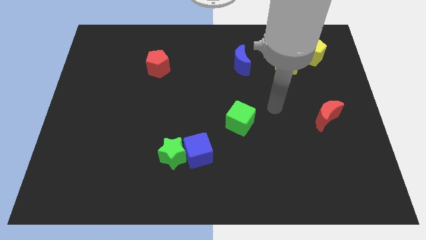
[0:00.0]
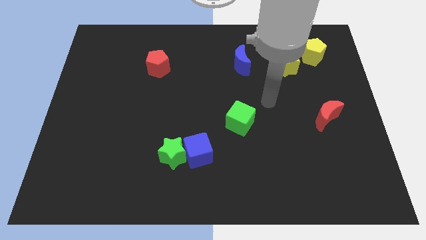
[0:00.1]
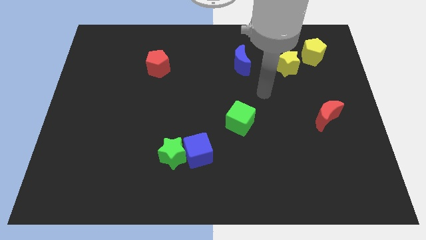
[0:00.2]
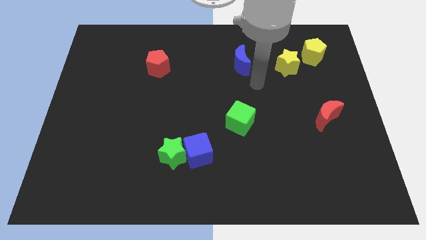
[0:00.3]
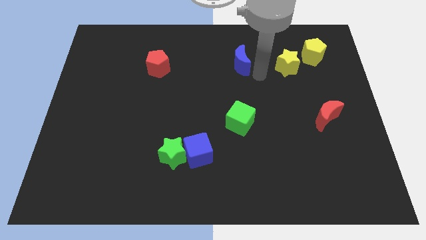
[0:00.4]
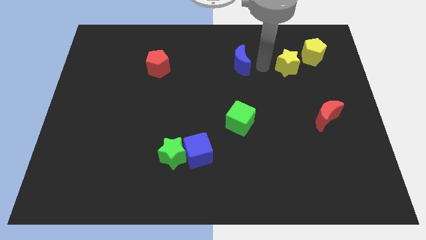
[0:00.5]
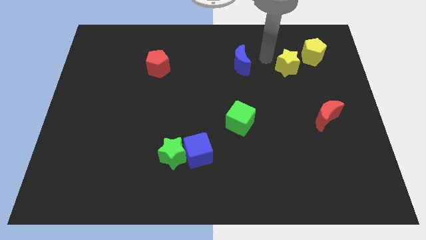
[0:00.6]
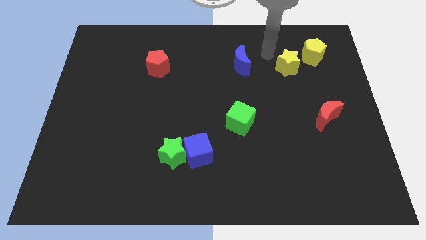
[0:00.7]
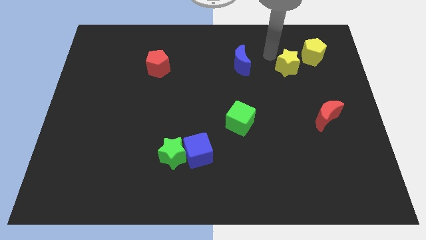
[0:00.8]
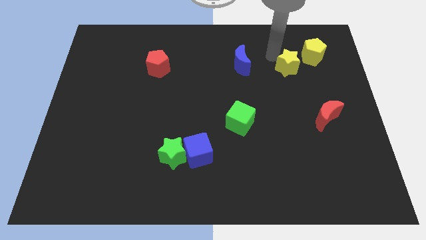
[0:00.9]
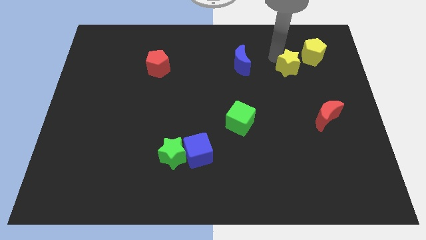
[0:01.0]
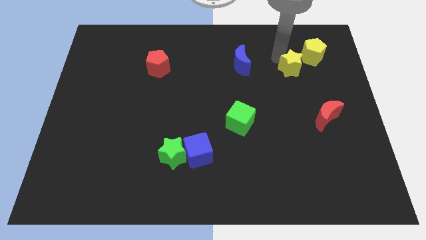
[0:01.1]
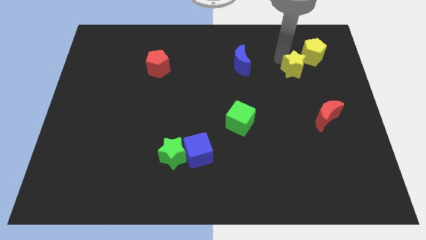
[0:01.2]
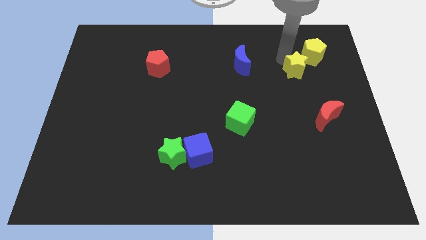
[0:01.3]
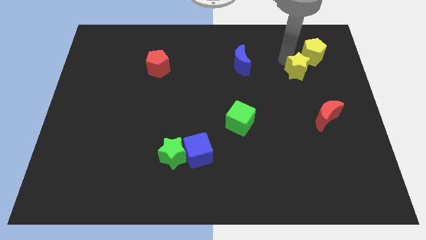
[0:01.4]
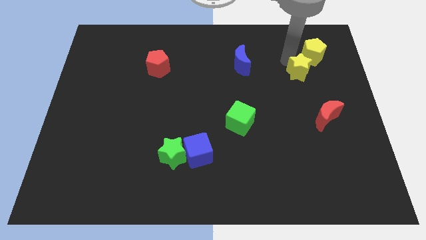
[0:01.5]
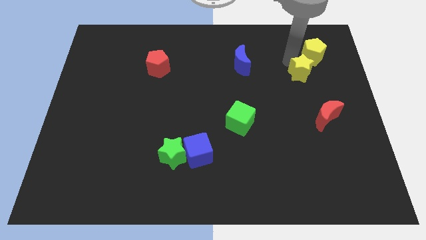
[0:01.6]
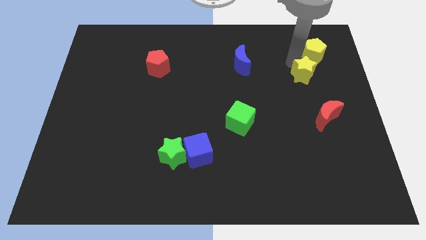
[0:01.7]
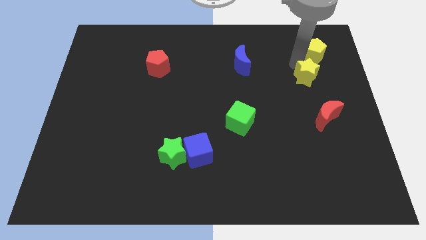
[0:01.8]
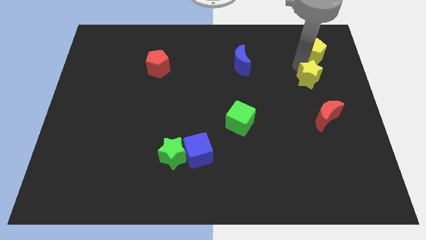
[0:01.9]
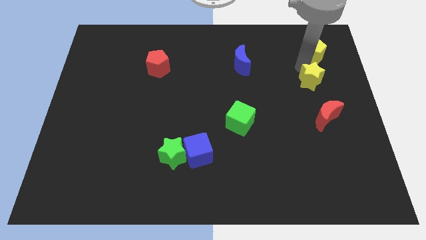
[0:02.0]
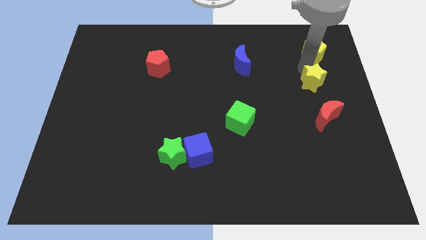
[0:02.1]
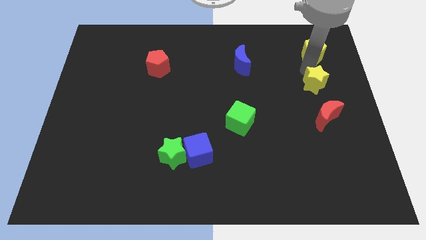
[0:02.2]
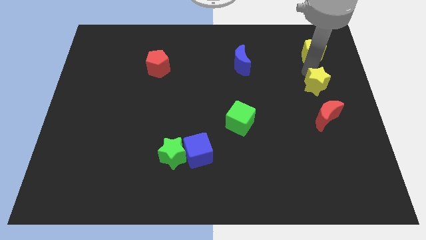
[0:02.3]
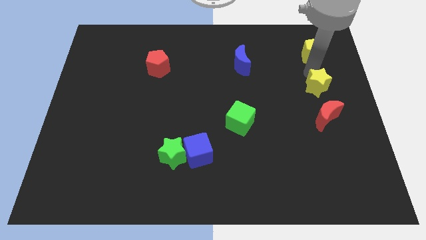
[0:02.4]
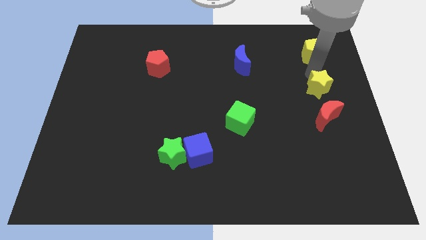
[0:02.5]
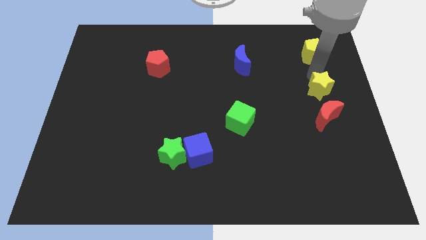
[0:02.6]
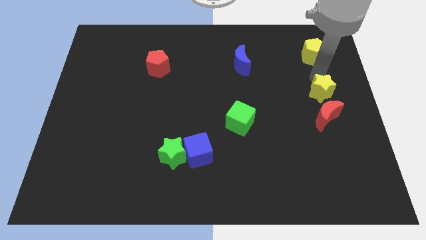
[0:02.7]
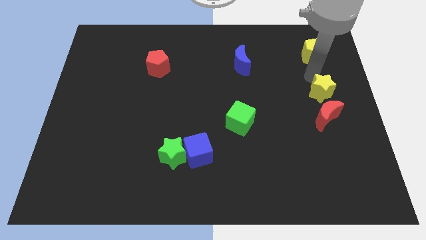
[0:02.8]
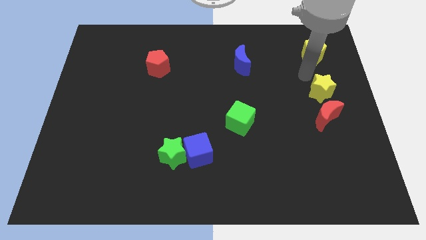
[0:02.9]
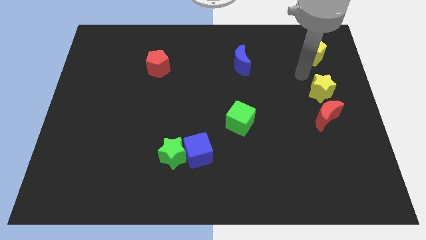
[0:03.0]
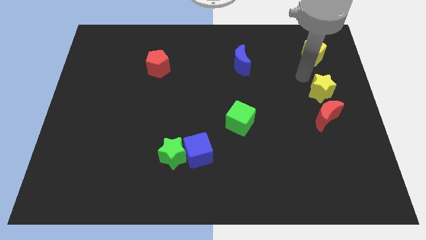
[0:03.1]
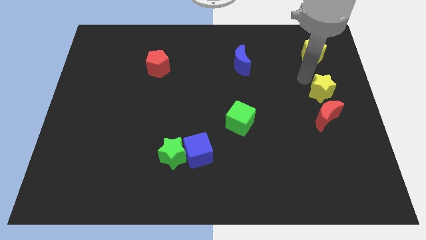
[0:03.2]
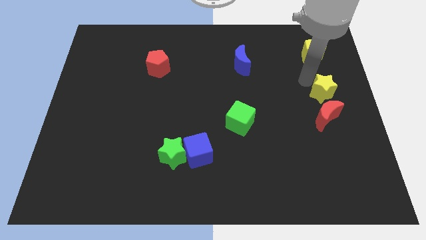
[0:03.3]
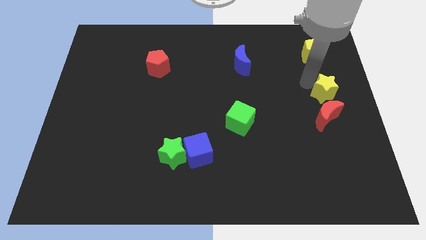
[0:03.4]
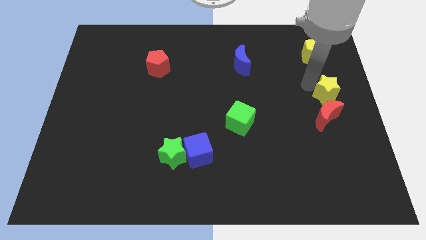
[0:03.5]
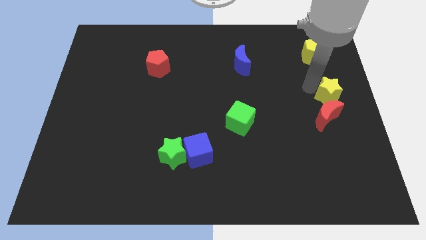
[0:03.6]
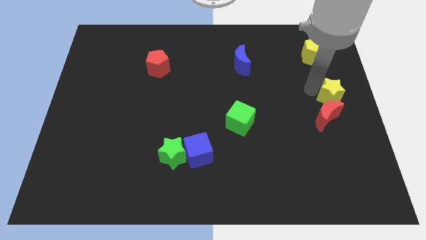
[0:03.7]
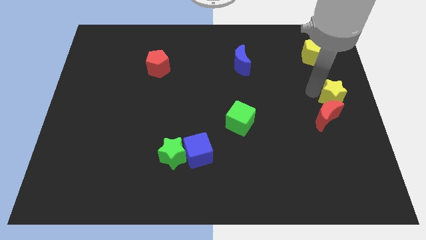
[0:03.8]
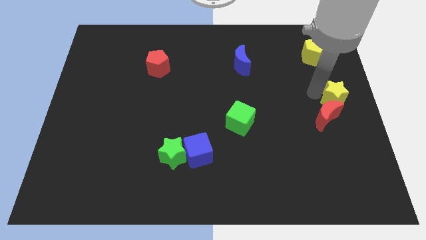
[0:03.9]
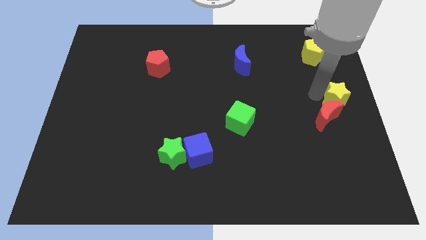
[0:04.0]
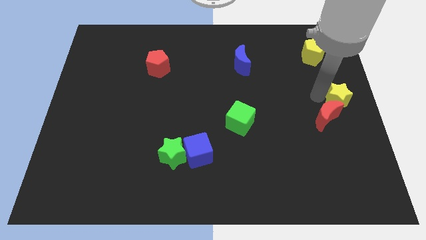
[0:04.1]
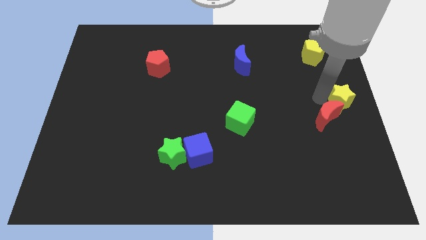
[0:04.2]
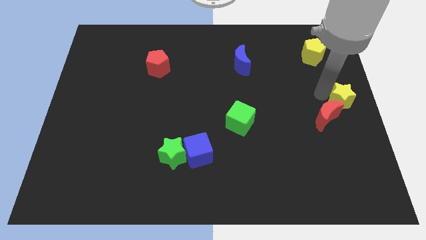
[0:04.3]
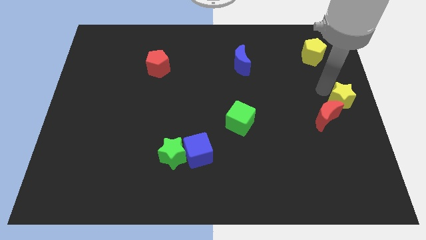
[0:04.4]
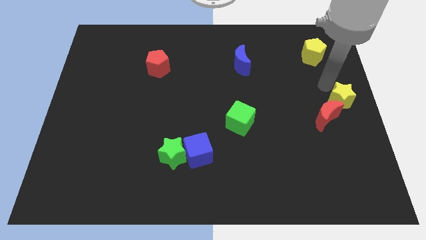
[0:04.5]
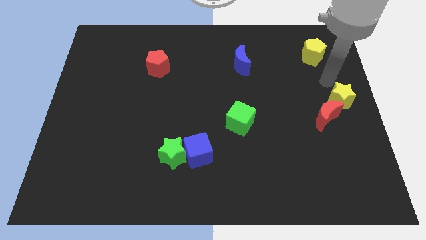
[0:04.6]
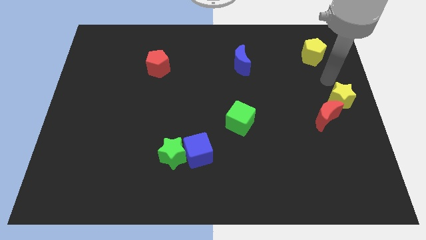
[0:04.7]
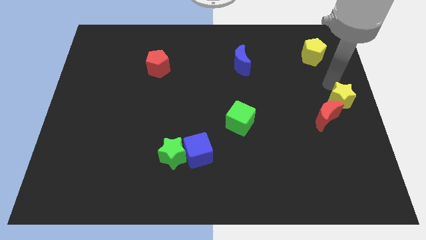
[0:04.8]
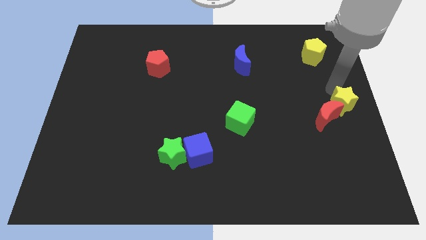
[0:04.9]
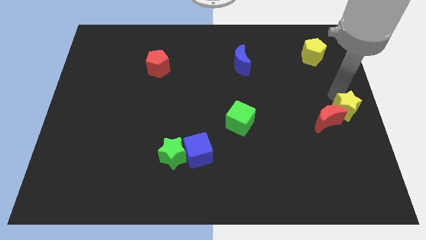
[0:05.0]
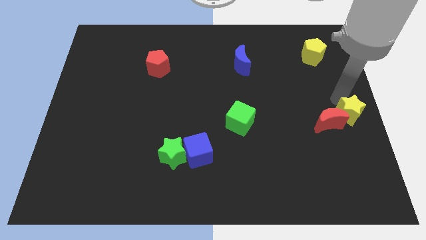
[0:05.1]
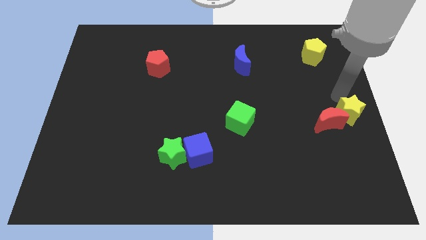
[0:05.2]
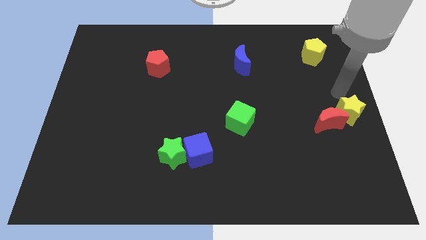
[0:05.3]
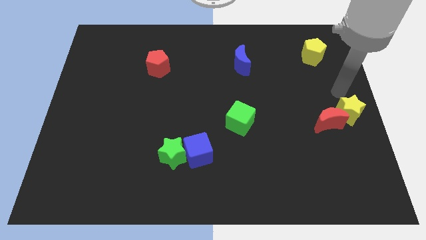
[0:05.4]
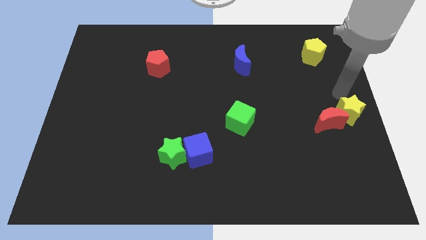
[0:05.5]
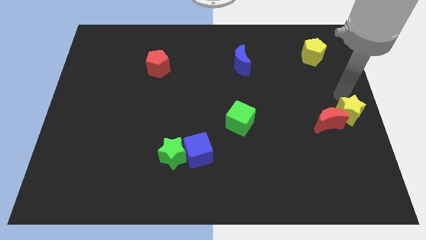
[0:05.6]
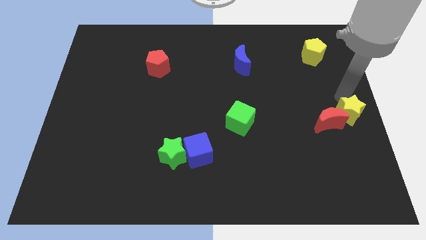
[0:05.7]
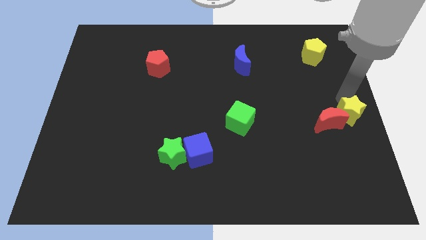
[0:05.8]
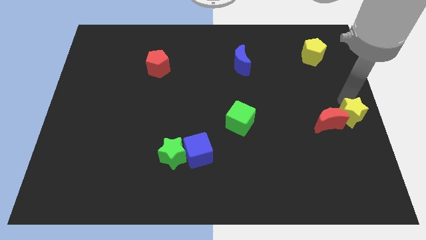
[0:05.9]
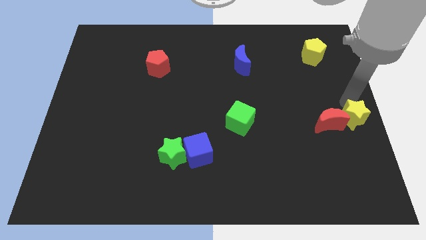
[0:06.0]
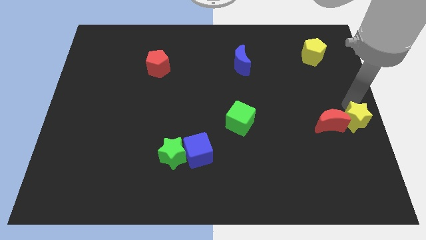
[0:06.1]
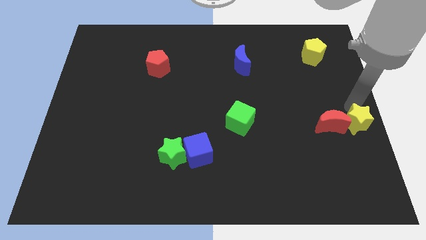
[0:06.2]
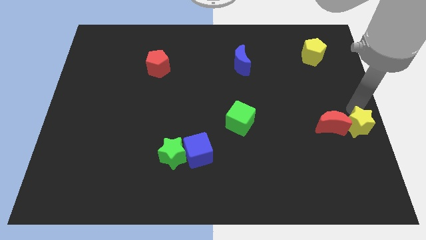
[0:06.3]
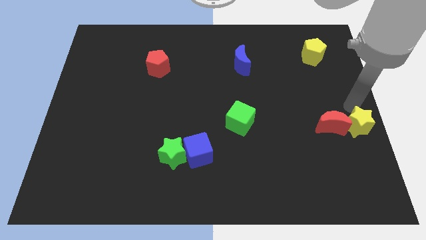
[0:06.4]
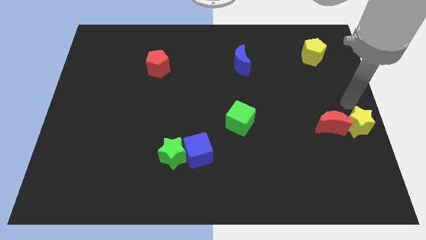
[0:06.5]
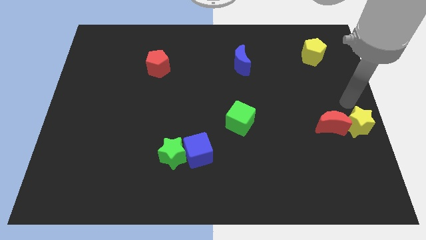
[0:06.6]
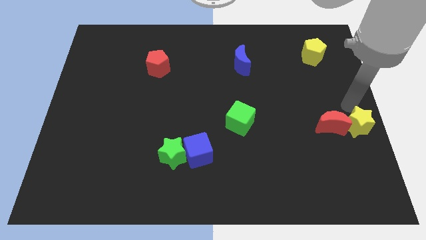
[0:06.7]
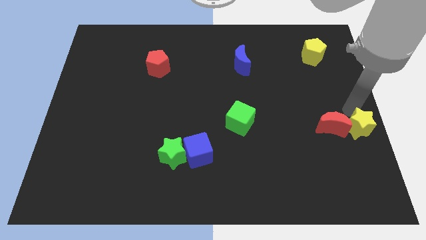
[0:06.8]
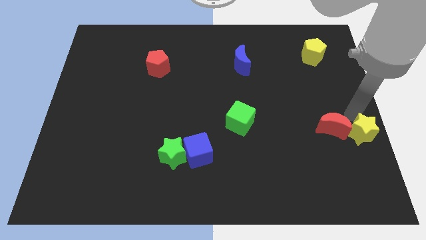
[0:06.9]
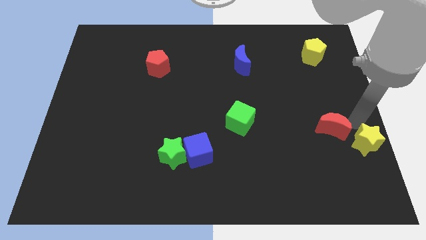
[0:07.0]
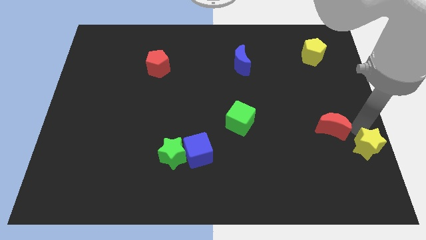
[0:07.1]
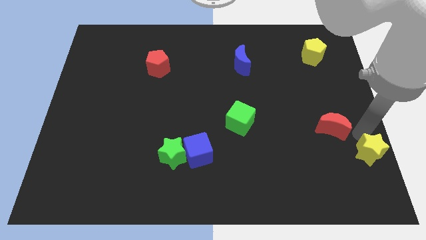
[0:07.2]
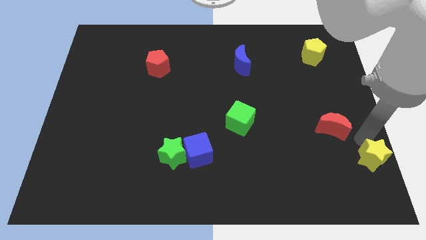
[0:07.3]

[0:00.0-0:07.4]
push the yellow star to the bottom right corner
